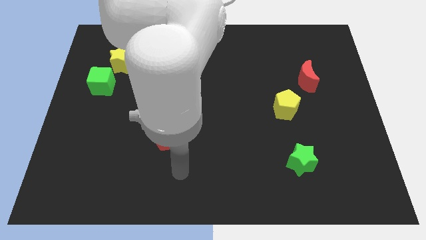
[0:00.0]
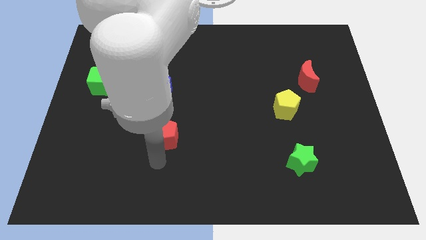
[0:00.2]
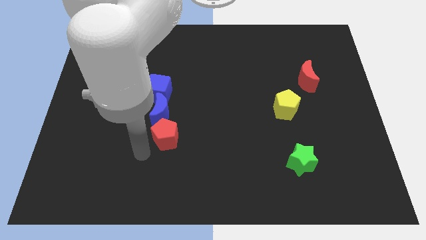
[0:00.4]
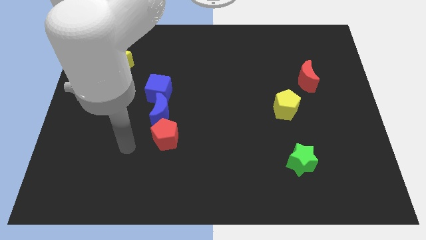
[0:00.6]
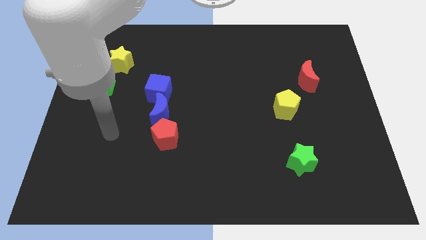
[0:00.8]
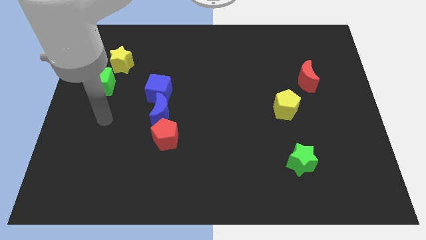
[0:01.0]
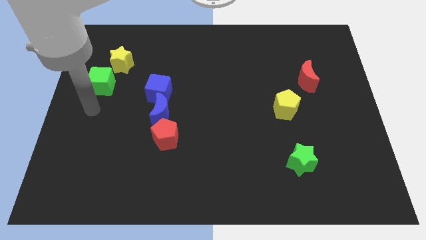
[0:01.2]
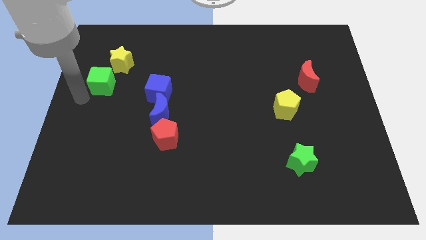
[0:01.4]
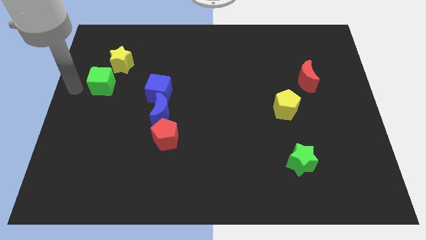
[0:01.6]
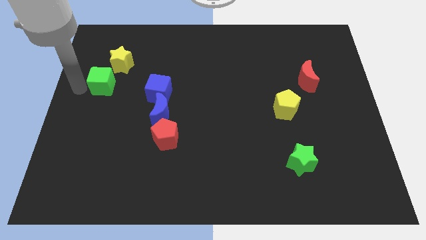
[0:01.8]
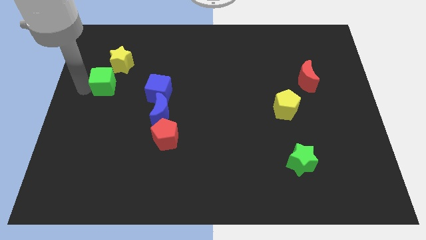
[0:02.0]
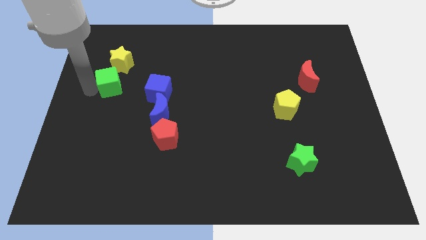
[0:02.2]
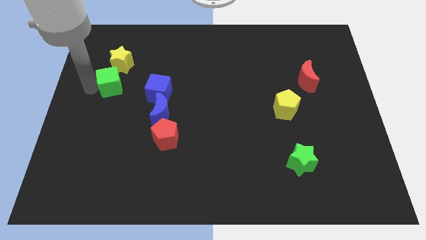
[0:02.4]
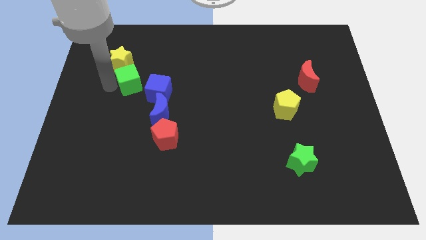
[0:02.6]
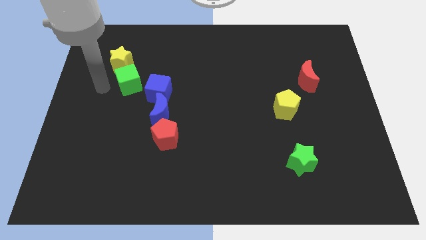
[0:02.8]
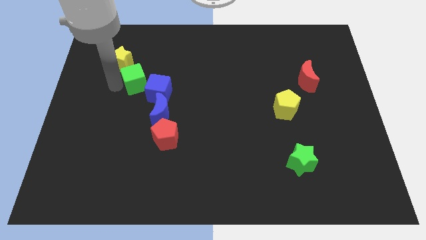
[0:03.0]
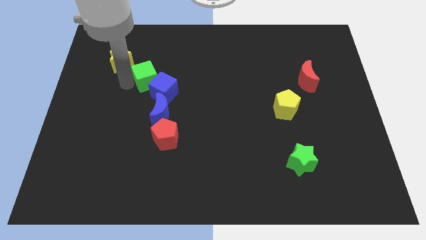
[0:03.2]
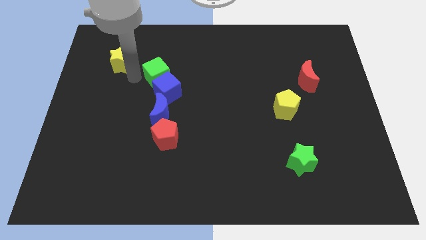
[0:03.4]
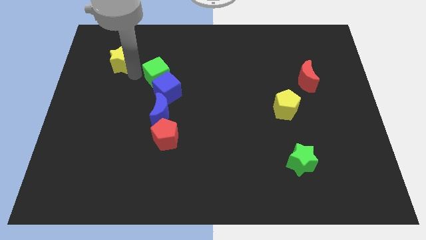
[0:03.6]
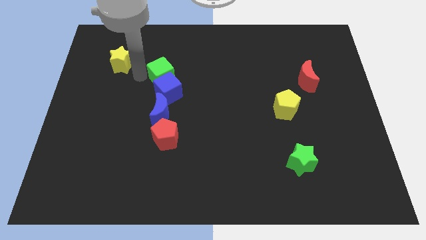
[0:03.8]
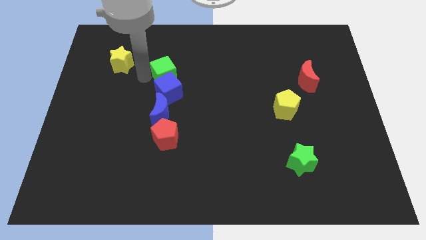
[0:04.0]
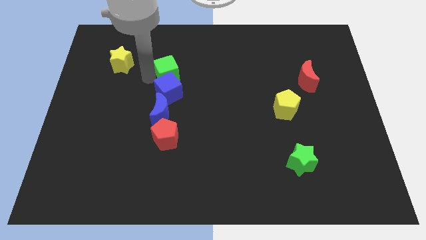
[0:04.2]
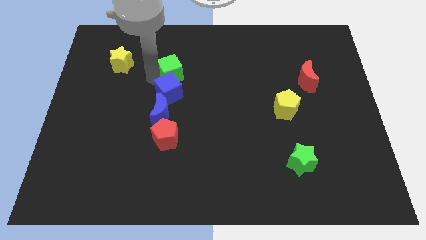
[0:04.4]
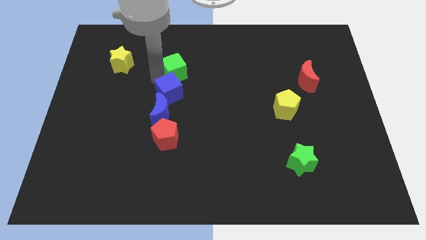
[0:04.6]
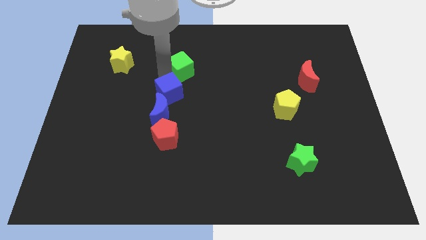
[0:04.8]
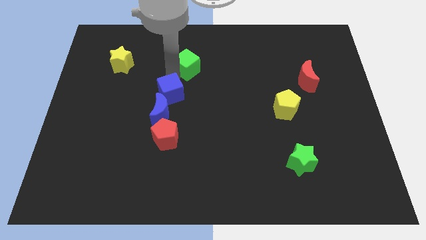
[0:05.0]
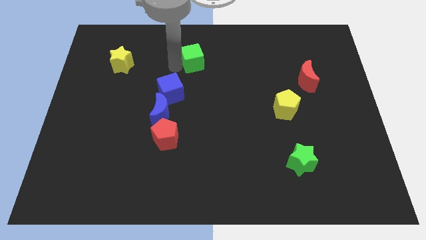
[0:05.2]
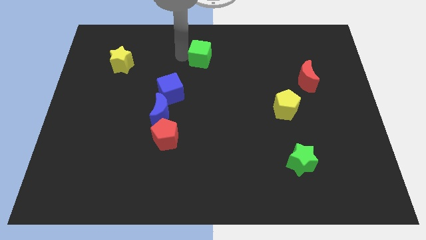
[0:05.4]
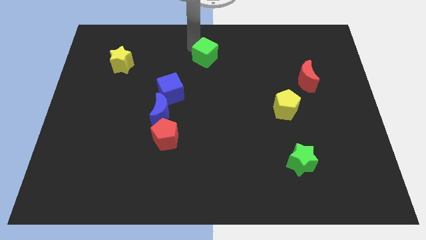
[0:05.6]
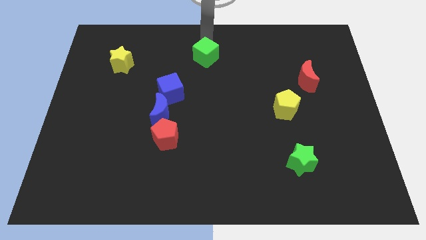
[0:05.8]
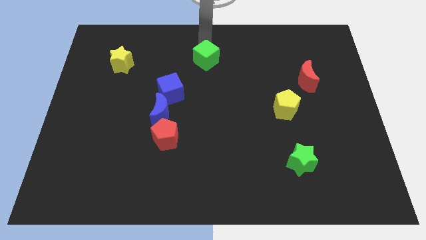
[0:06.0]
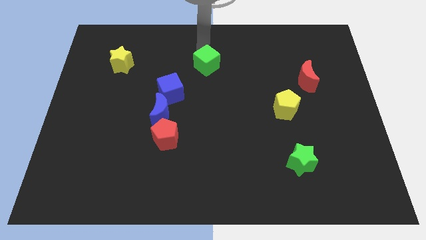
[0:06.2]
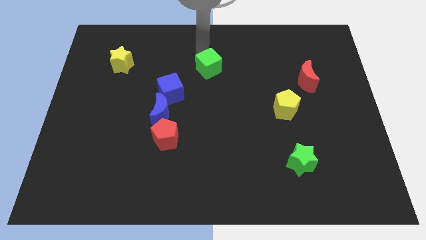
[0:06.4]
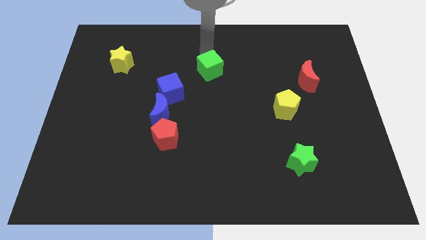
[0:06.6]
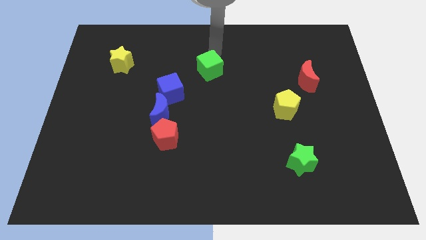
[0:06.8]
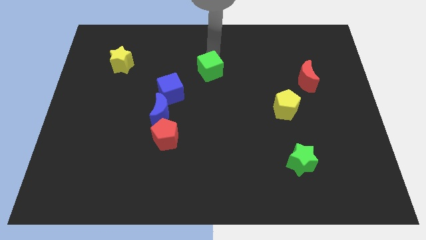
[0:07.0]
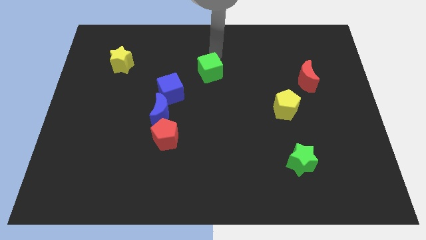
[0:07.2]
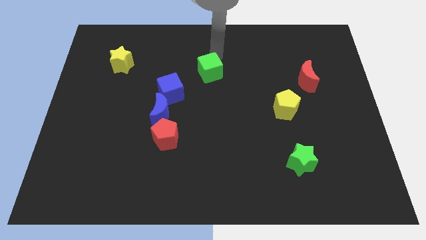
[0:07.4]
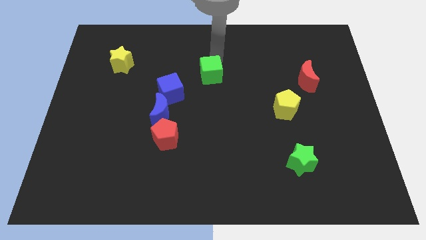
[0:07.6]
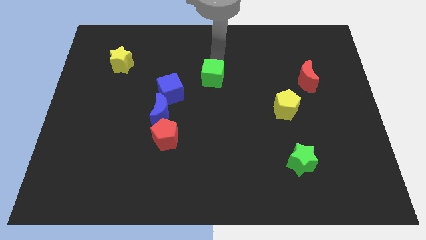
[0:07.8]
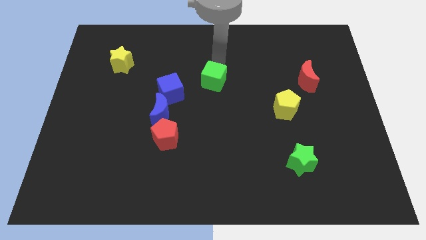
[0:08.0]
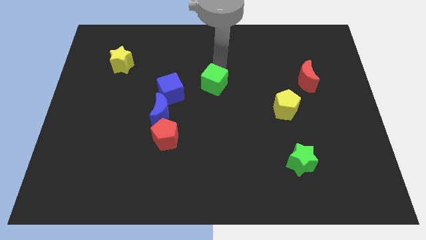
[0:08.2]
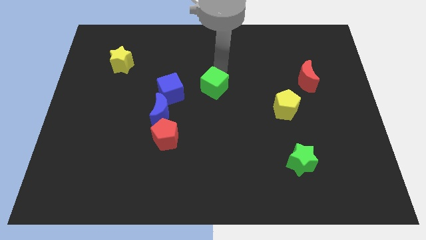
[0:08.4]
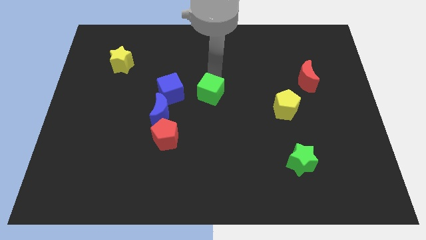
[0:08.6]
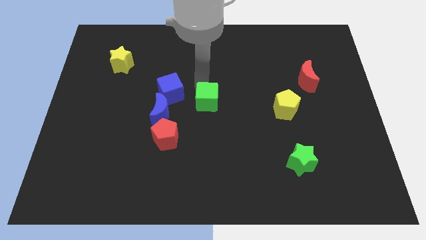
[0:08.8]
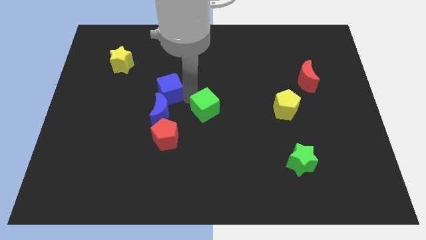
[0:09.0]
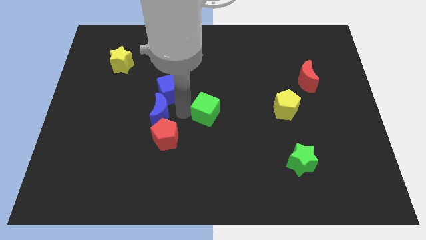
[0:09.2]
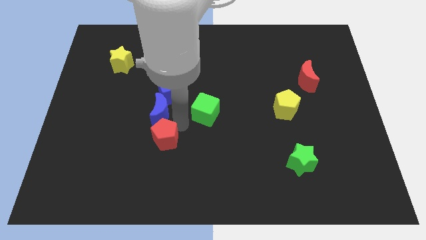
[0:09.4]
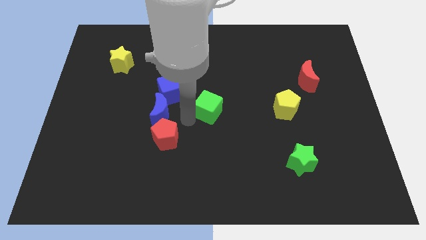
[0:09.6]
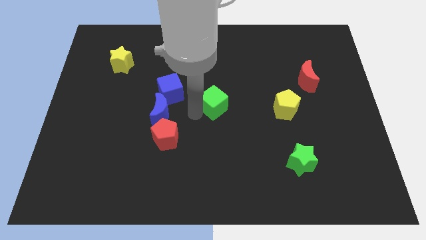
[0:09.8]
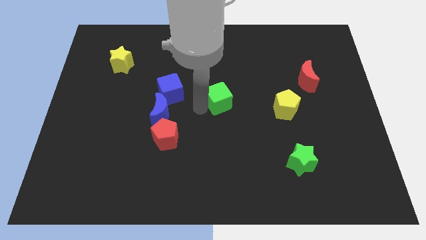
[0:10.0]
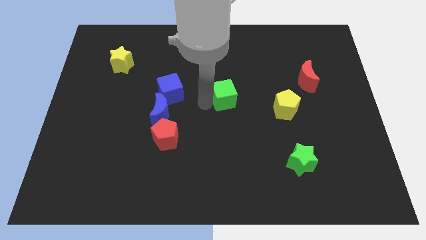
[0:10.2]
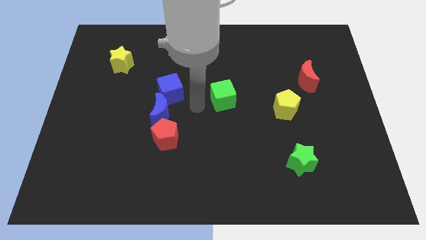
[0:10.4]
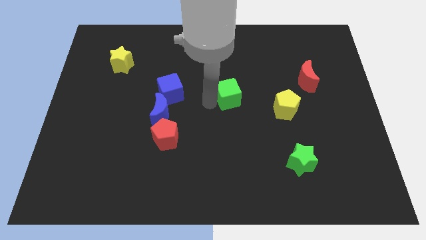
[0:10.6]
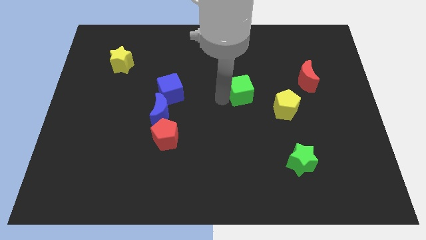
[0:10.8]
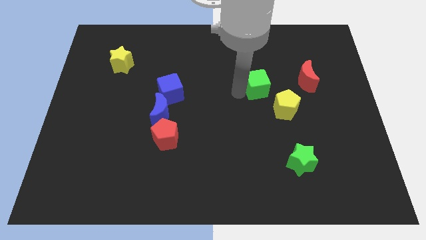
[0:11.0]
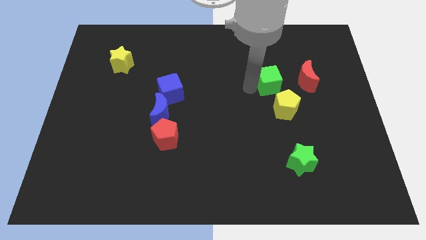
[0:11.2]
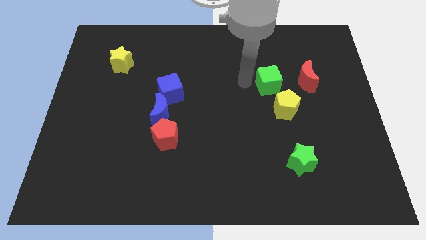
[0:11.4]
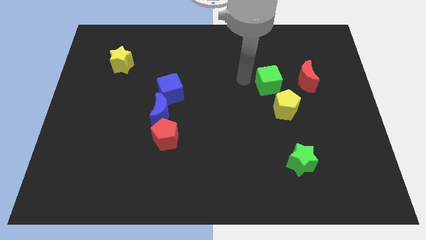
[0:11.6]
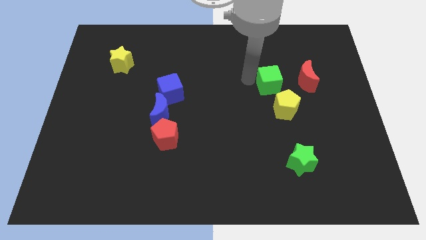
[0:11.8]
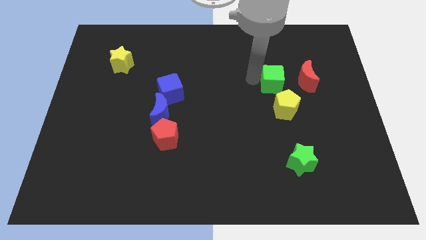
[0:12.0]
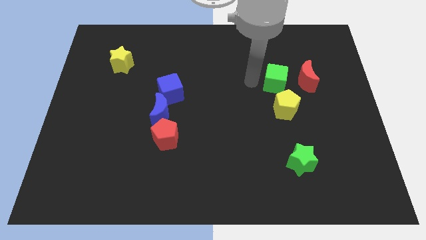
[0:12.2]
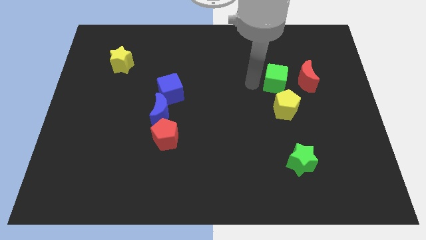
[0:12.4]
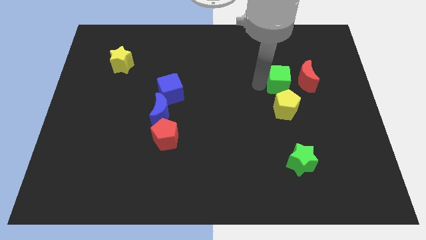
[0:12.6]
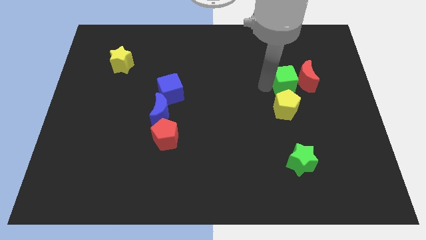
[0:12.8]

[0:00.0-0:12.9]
put the green cube next to the red moon

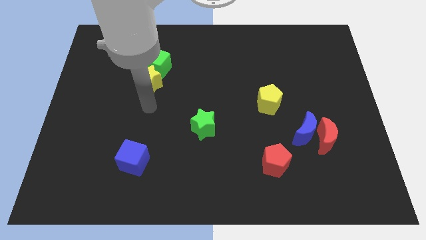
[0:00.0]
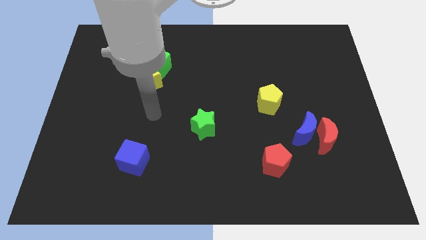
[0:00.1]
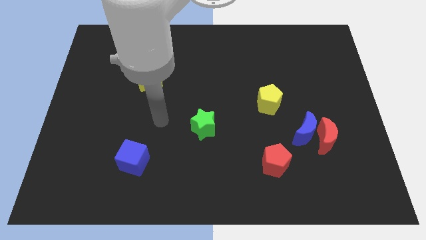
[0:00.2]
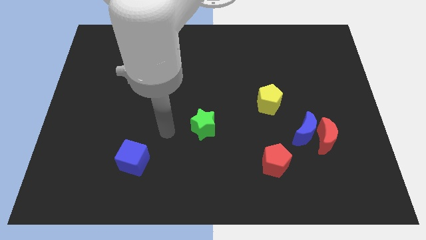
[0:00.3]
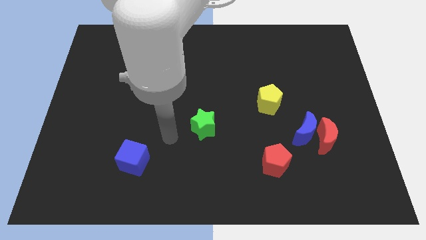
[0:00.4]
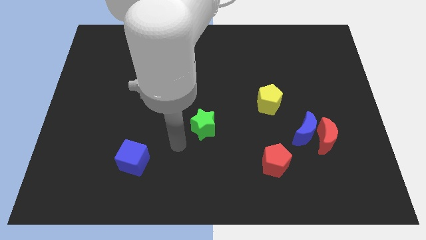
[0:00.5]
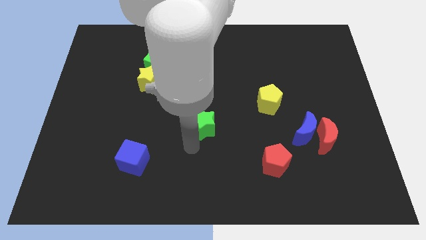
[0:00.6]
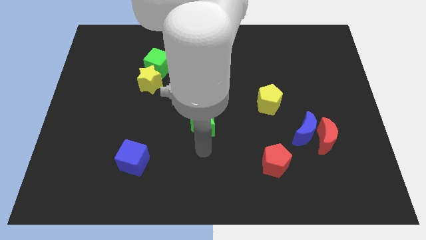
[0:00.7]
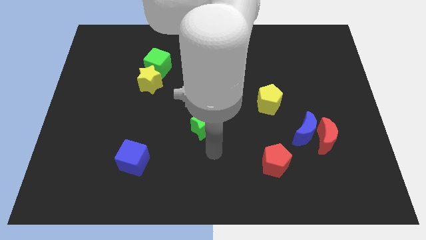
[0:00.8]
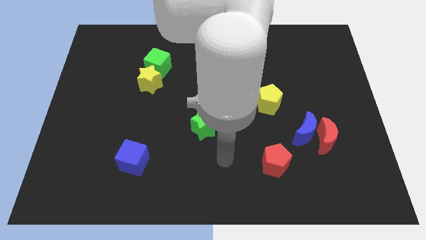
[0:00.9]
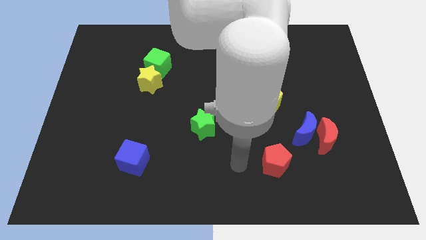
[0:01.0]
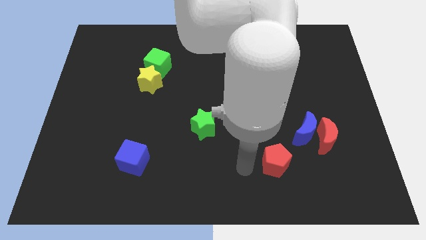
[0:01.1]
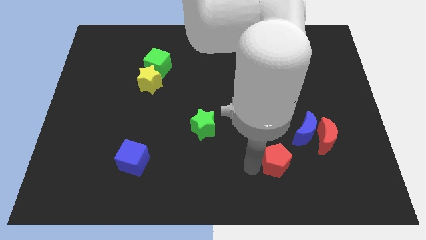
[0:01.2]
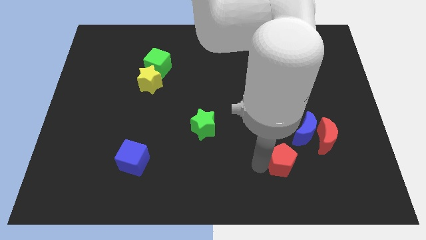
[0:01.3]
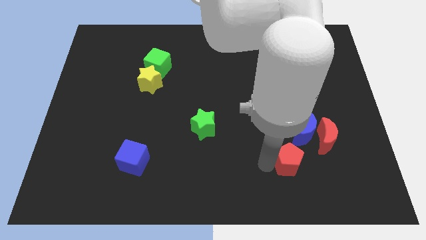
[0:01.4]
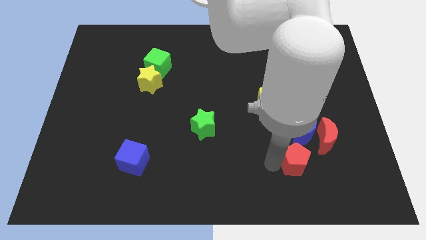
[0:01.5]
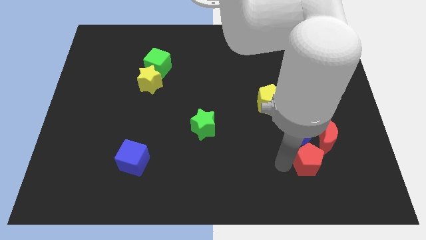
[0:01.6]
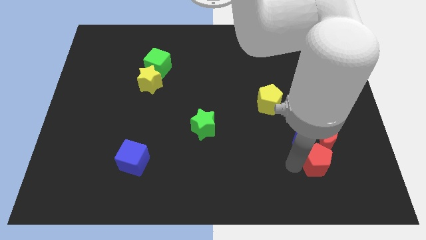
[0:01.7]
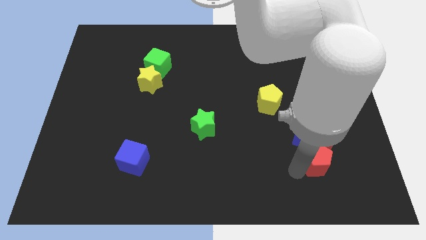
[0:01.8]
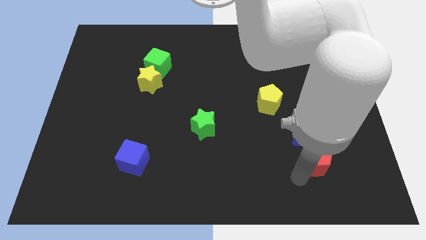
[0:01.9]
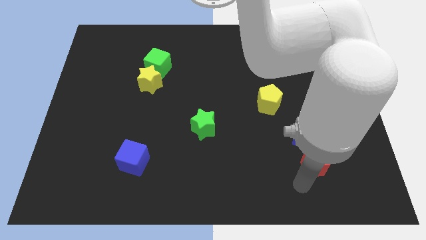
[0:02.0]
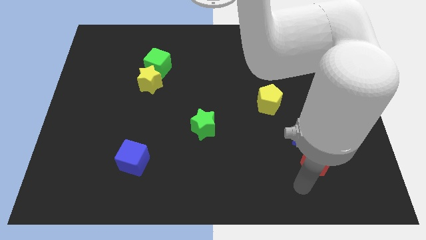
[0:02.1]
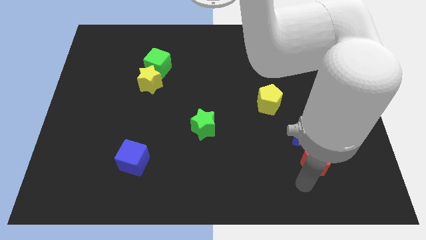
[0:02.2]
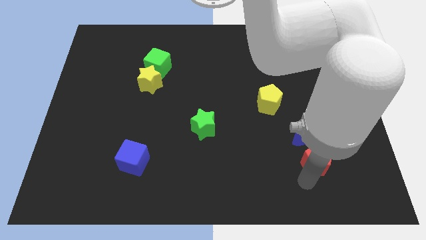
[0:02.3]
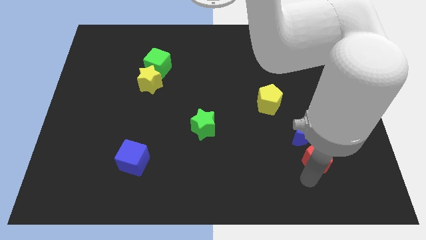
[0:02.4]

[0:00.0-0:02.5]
move the red pentagon next to the red moon
